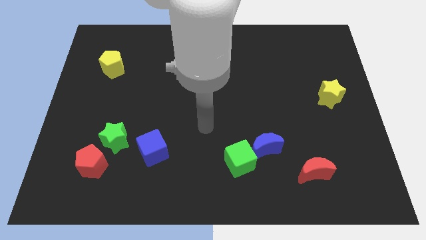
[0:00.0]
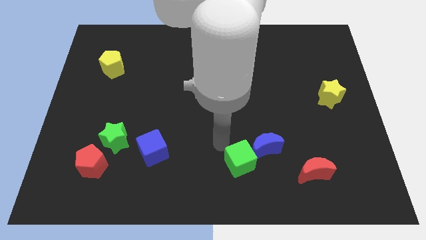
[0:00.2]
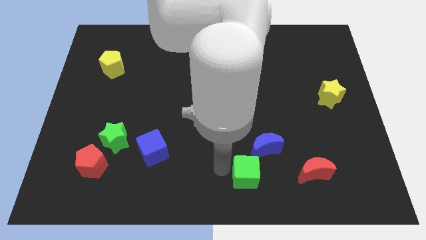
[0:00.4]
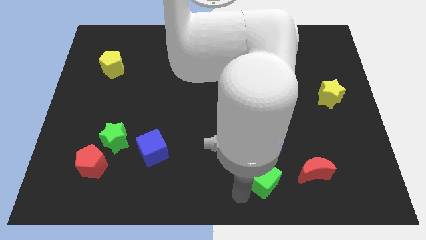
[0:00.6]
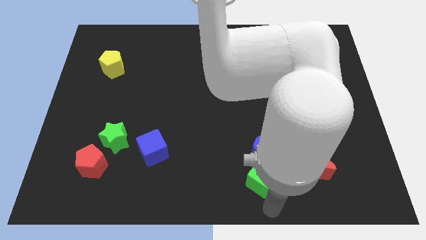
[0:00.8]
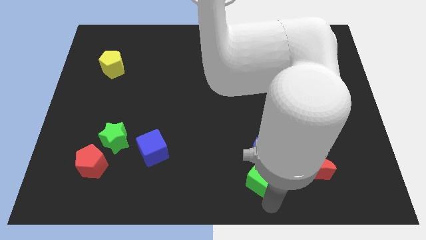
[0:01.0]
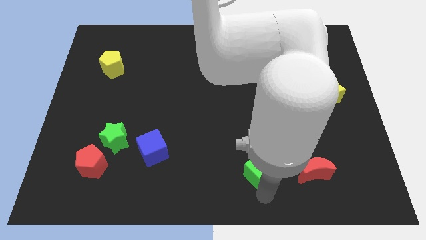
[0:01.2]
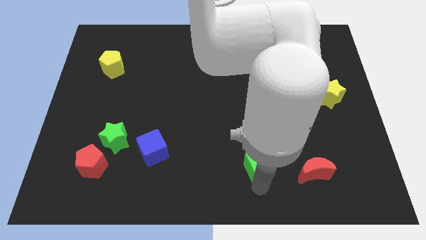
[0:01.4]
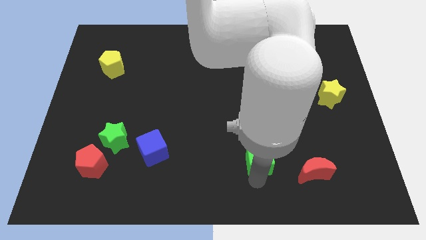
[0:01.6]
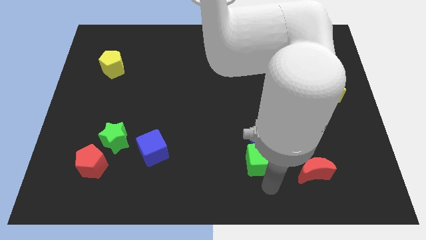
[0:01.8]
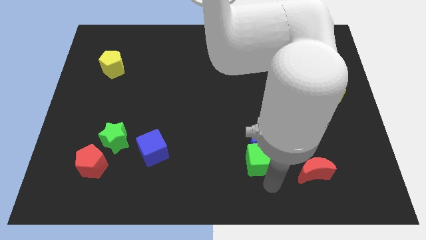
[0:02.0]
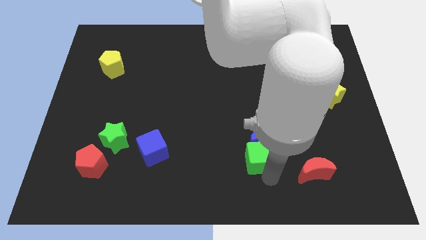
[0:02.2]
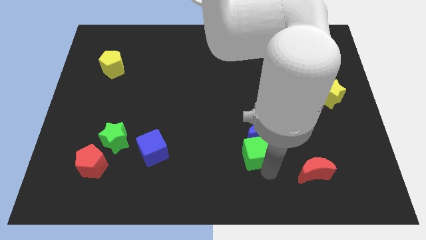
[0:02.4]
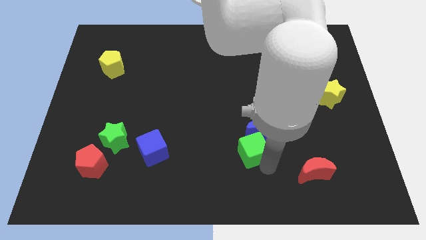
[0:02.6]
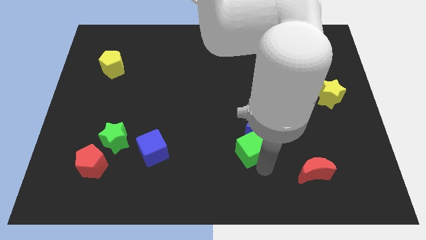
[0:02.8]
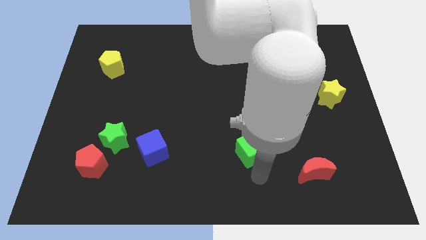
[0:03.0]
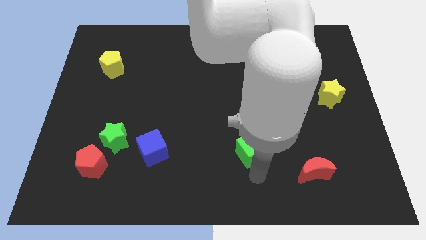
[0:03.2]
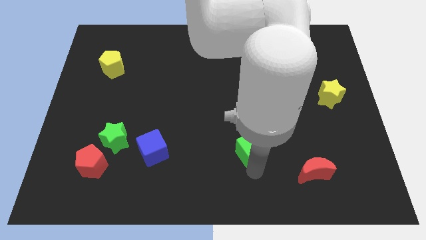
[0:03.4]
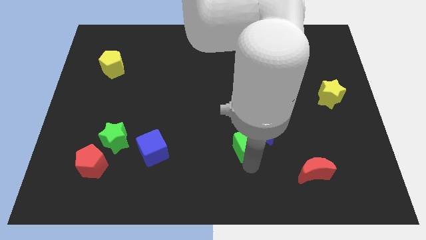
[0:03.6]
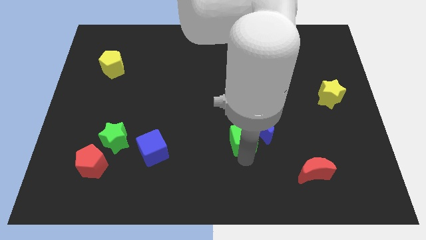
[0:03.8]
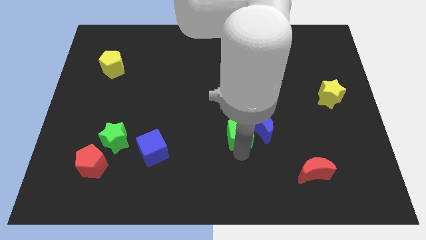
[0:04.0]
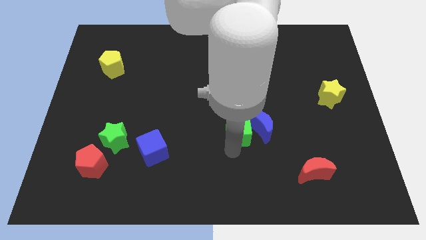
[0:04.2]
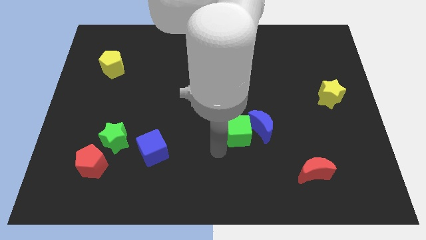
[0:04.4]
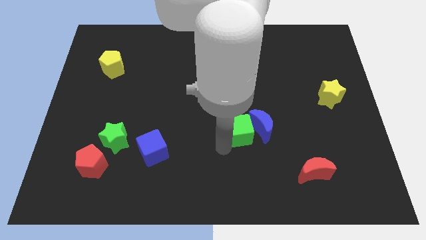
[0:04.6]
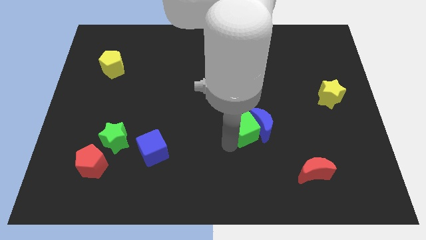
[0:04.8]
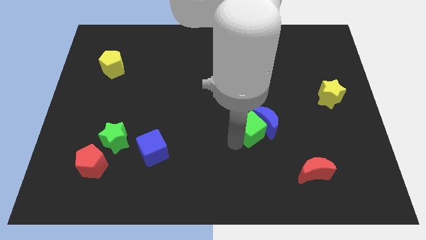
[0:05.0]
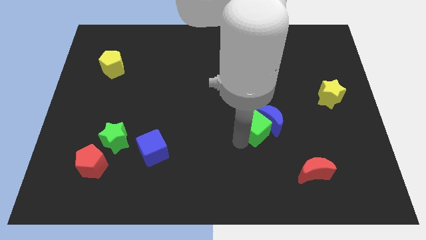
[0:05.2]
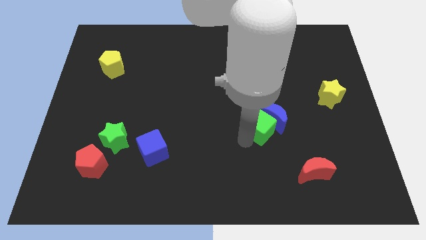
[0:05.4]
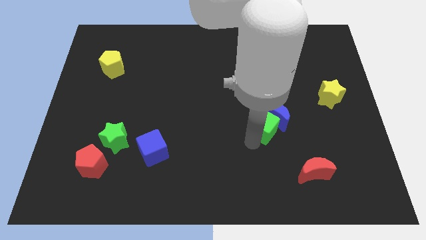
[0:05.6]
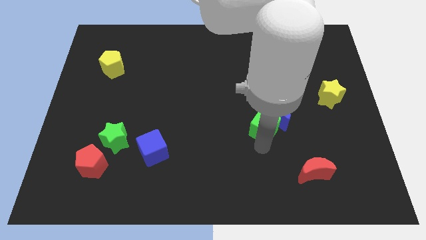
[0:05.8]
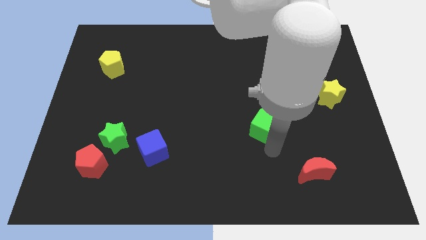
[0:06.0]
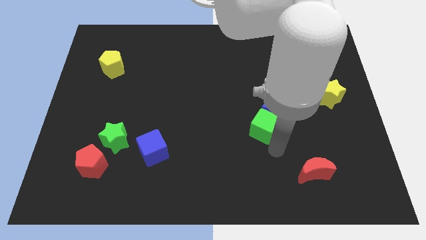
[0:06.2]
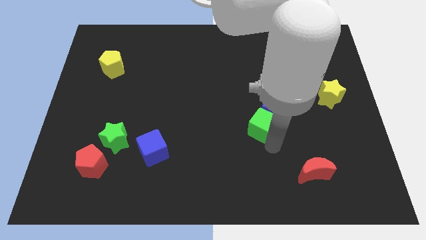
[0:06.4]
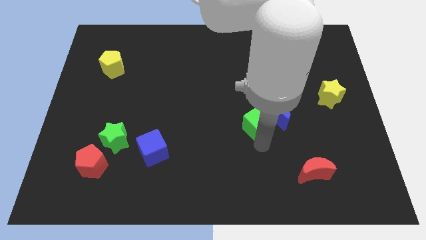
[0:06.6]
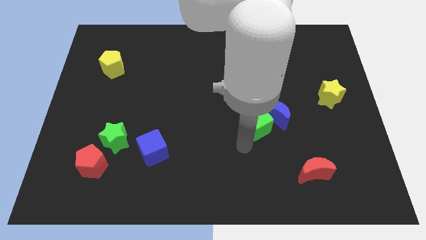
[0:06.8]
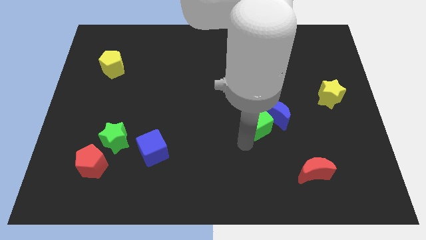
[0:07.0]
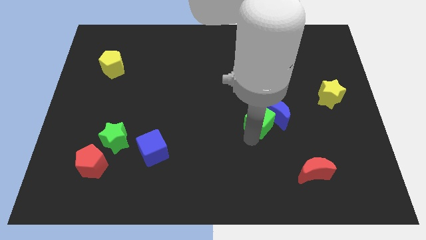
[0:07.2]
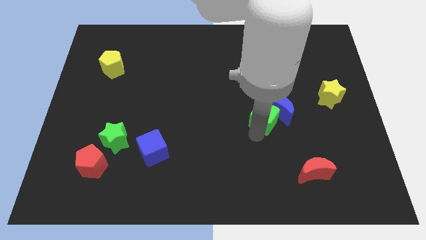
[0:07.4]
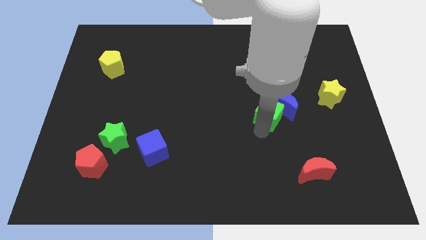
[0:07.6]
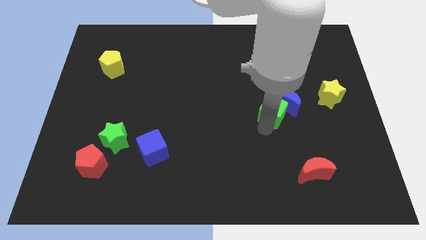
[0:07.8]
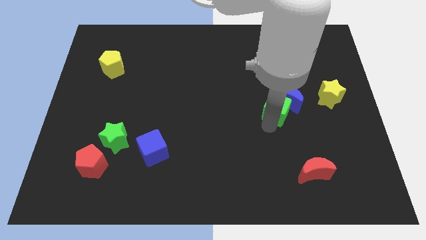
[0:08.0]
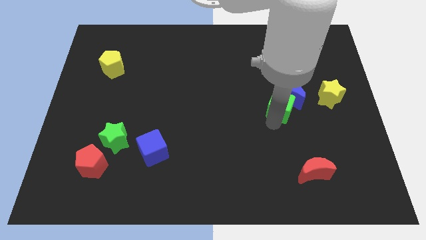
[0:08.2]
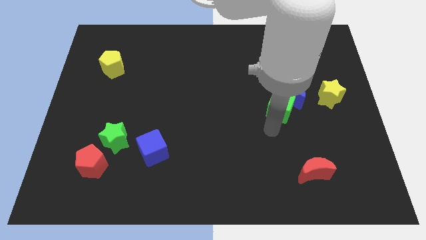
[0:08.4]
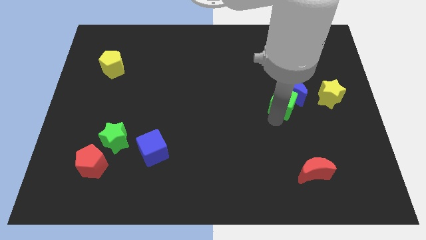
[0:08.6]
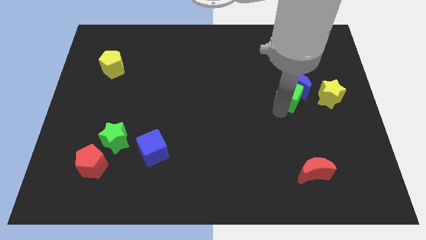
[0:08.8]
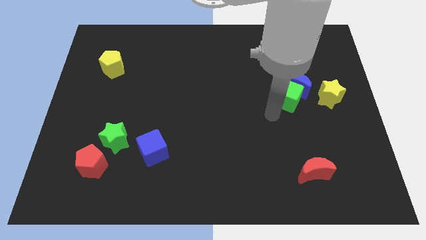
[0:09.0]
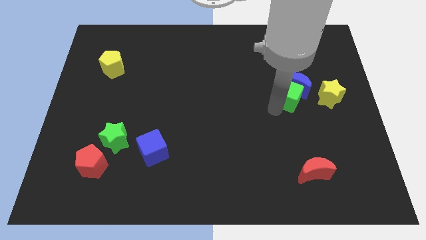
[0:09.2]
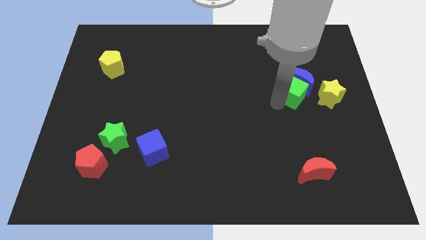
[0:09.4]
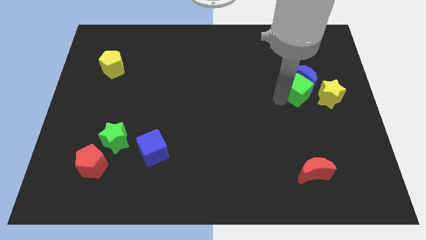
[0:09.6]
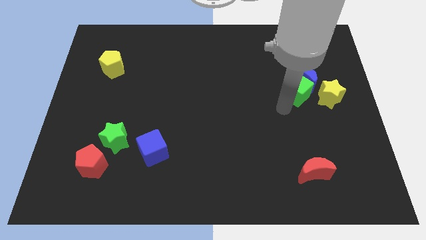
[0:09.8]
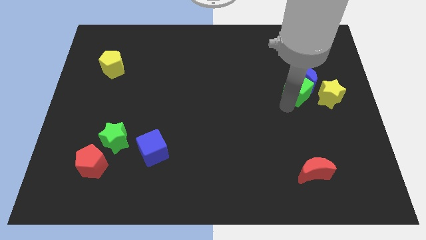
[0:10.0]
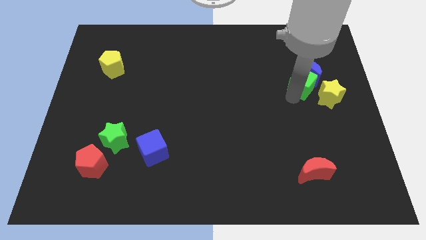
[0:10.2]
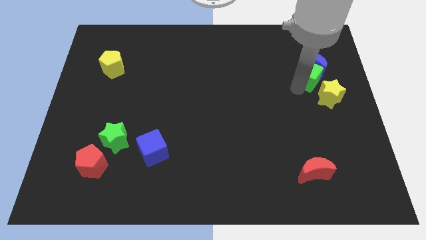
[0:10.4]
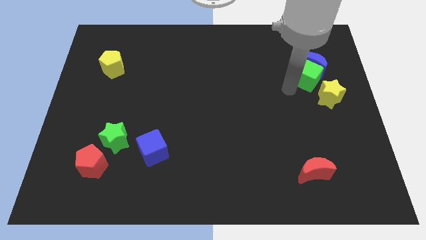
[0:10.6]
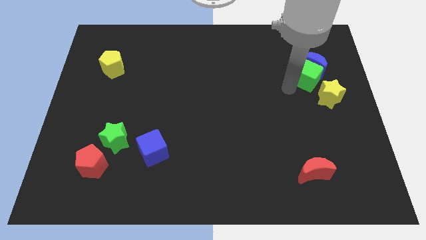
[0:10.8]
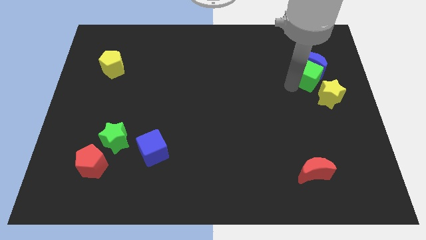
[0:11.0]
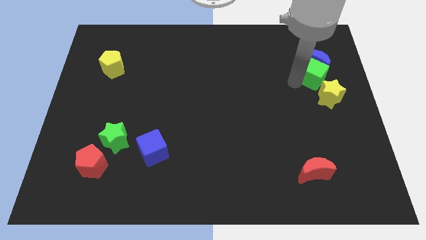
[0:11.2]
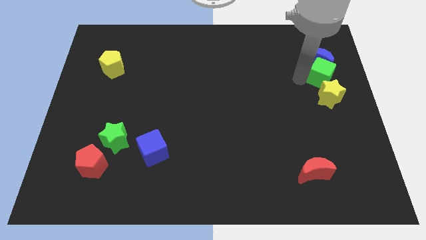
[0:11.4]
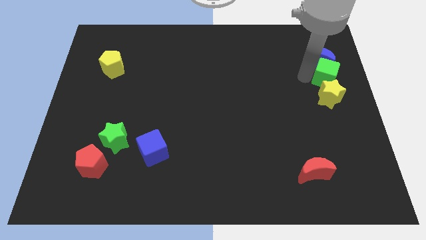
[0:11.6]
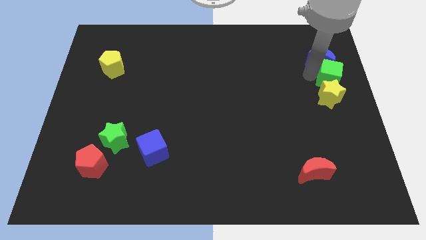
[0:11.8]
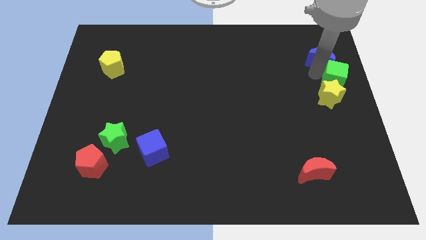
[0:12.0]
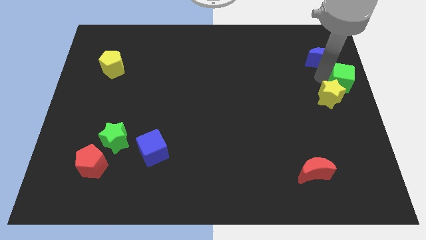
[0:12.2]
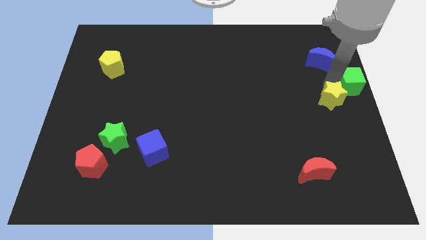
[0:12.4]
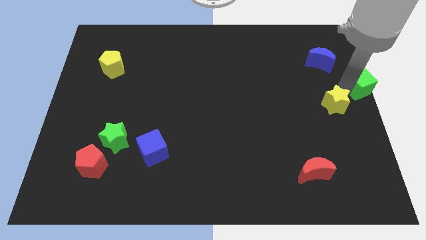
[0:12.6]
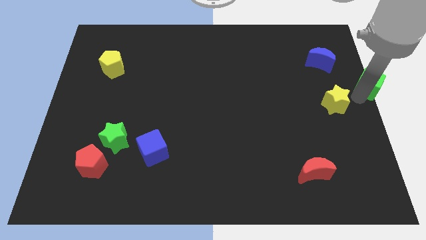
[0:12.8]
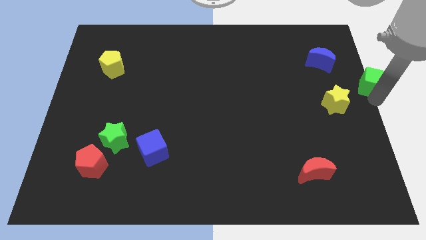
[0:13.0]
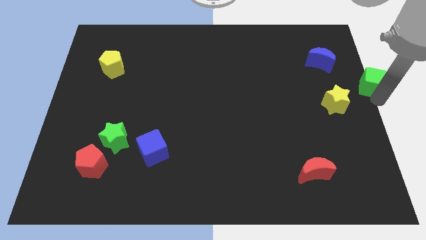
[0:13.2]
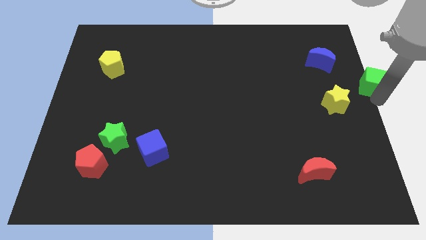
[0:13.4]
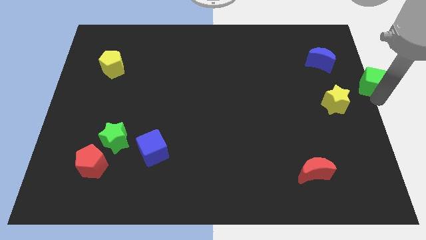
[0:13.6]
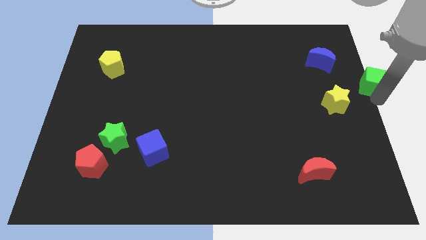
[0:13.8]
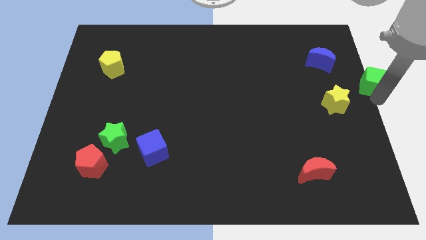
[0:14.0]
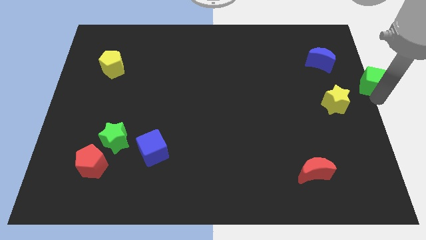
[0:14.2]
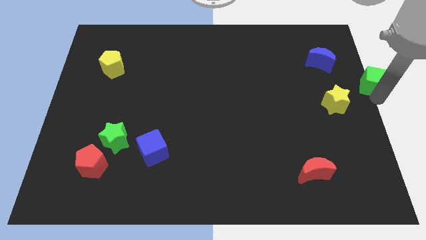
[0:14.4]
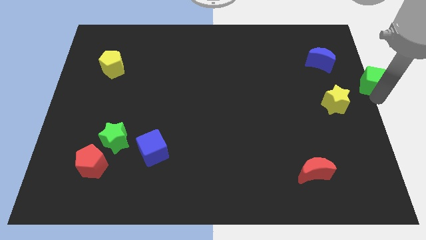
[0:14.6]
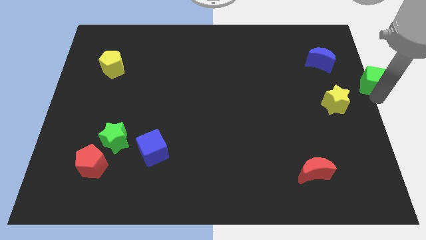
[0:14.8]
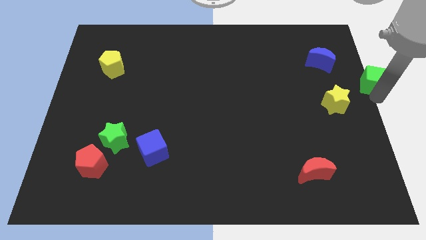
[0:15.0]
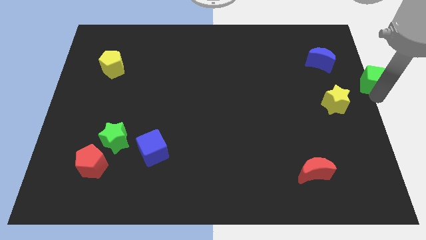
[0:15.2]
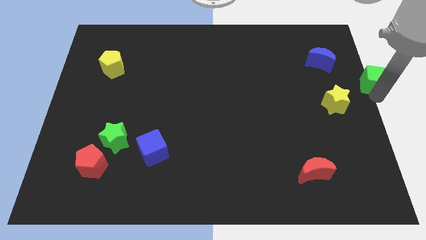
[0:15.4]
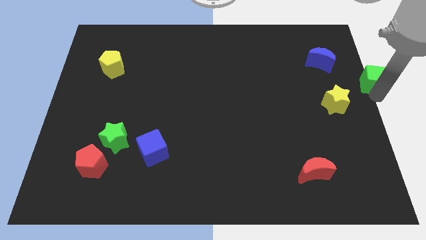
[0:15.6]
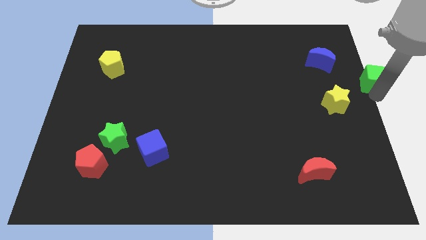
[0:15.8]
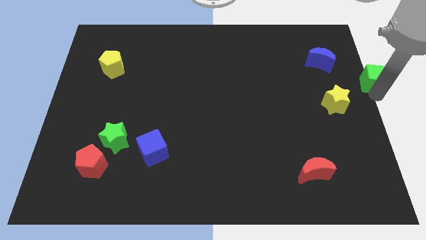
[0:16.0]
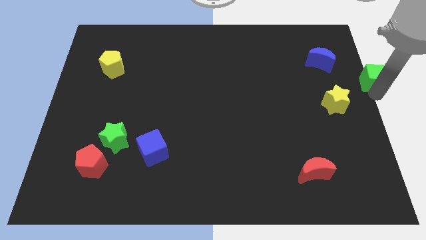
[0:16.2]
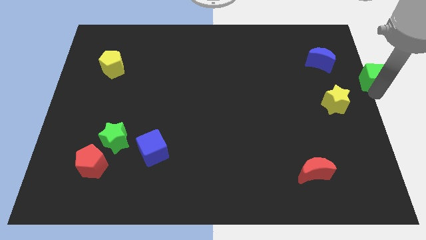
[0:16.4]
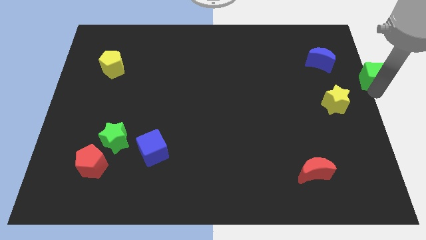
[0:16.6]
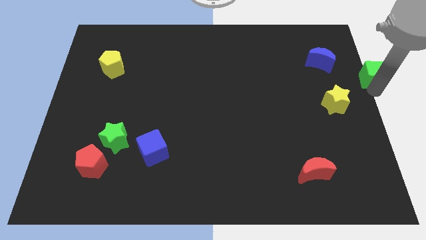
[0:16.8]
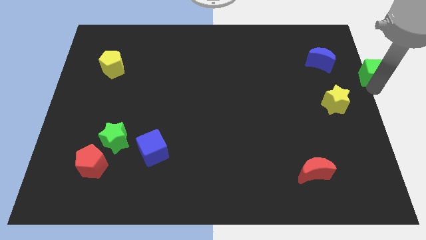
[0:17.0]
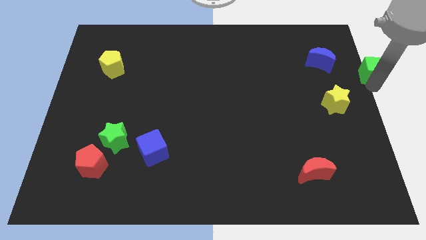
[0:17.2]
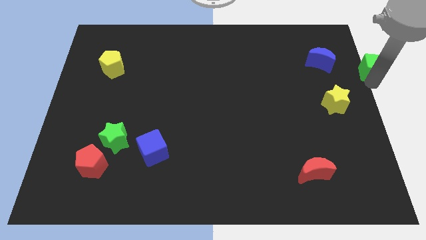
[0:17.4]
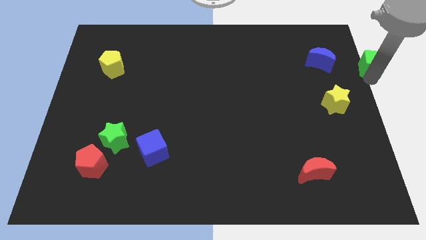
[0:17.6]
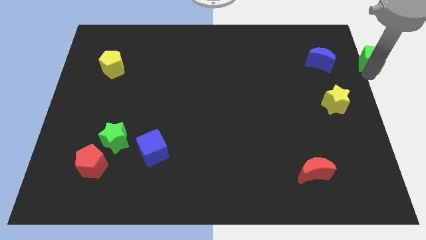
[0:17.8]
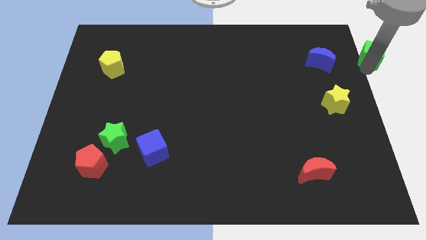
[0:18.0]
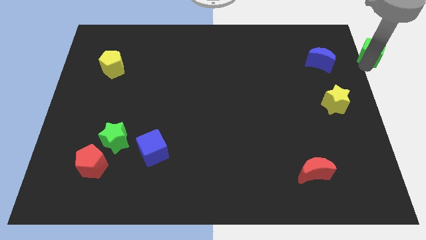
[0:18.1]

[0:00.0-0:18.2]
put the green cube to the top right corner
